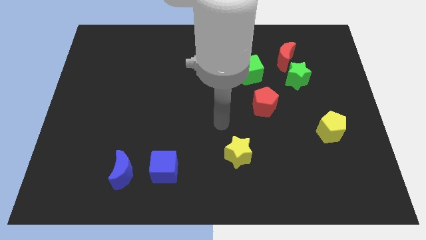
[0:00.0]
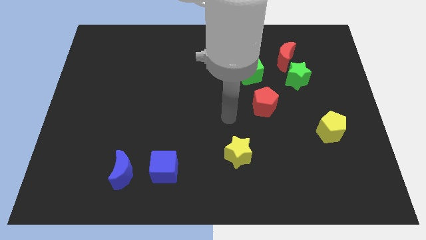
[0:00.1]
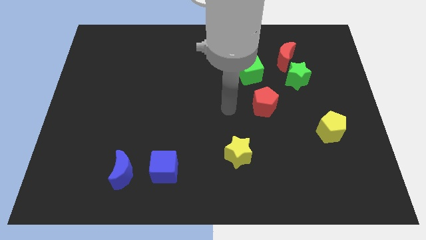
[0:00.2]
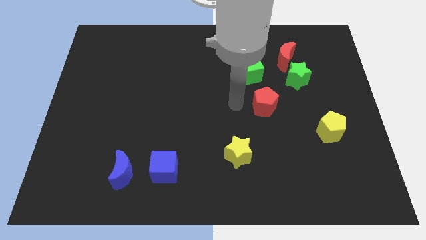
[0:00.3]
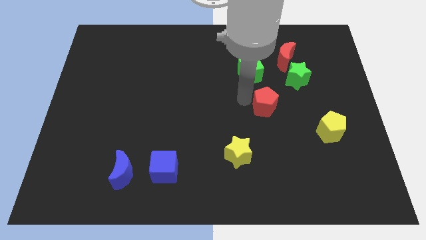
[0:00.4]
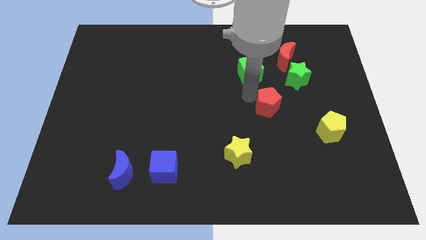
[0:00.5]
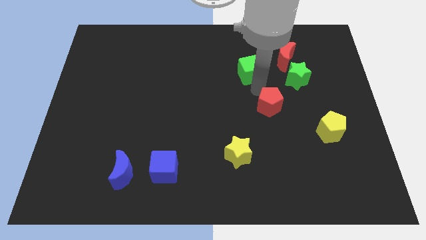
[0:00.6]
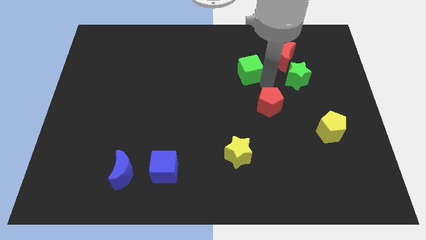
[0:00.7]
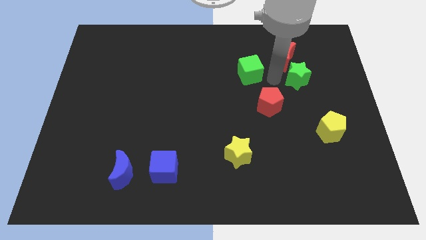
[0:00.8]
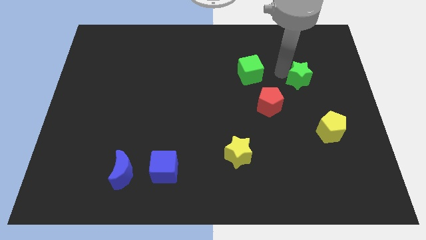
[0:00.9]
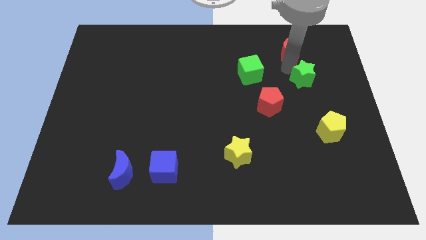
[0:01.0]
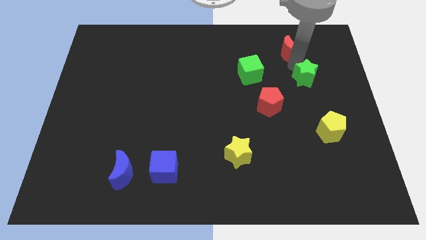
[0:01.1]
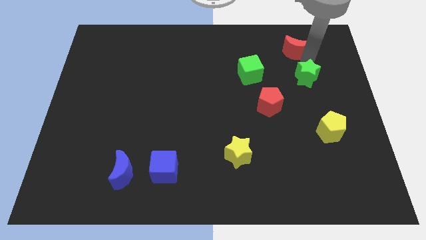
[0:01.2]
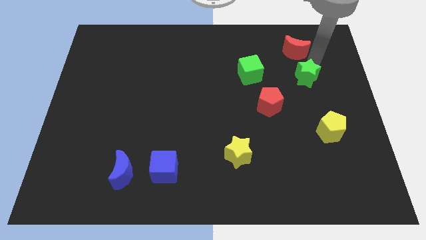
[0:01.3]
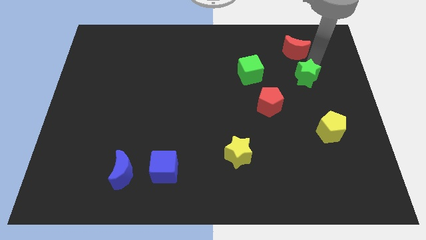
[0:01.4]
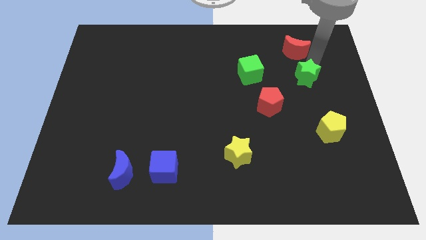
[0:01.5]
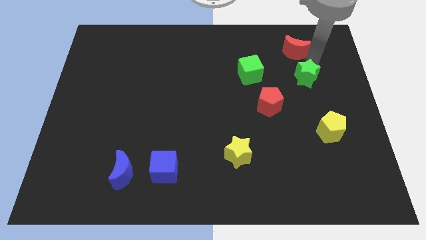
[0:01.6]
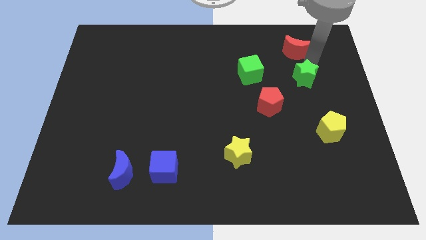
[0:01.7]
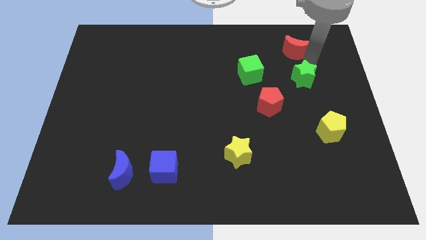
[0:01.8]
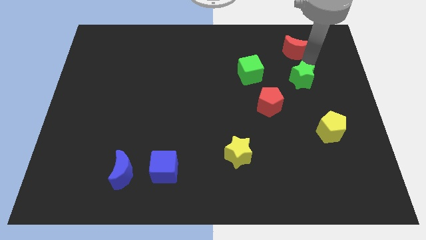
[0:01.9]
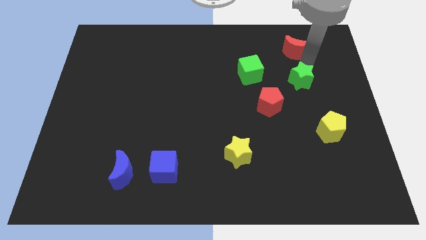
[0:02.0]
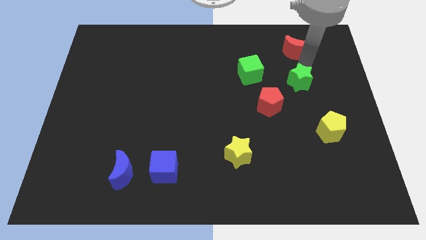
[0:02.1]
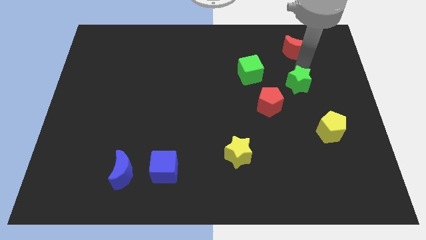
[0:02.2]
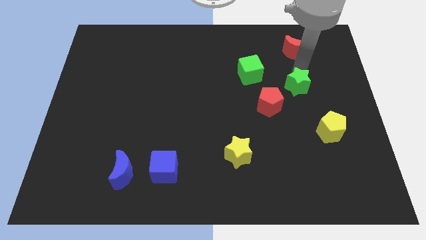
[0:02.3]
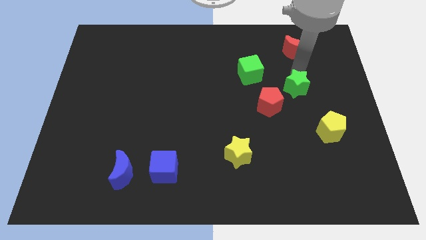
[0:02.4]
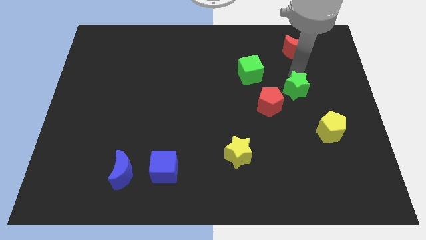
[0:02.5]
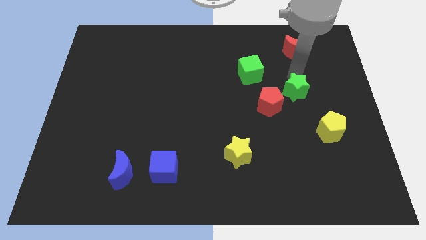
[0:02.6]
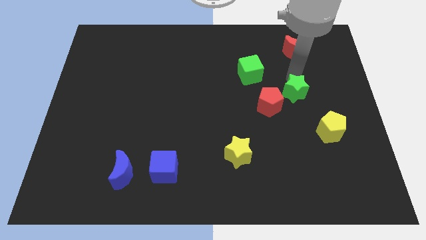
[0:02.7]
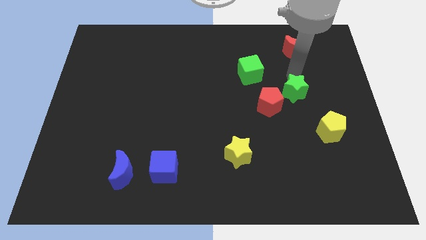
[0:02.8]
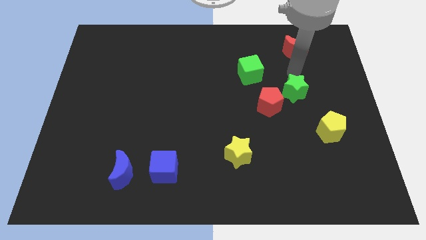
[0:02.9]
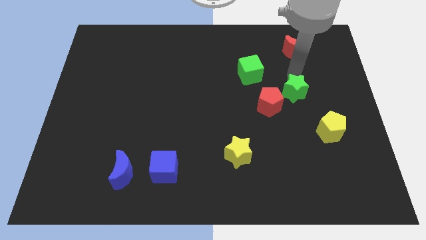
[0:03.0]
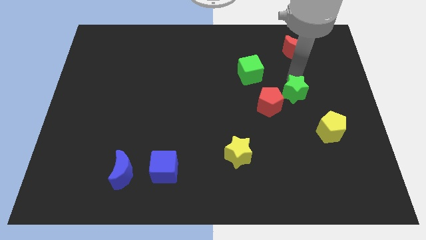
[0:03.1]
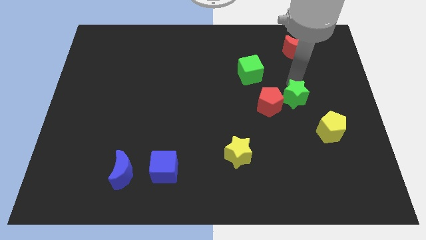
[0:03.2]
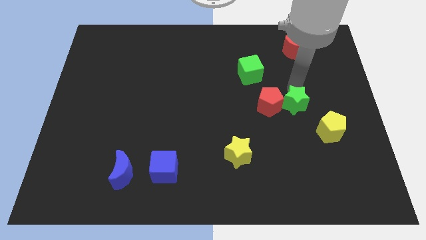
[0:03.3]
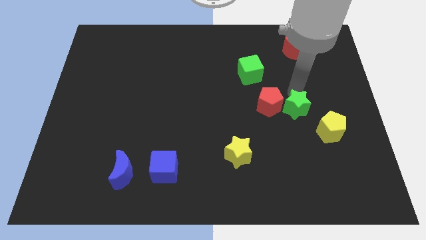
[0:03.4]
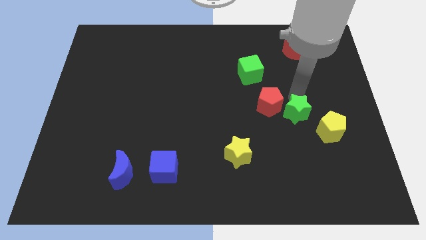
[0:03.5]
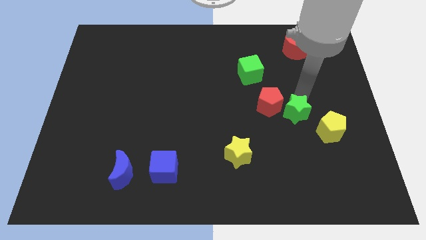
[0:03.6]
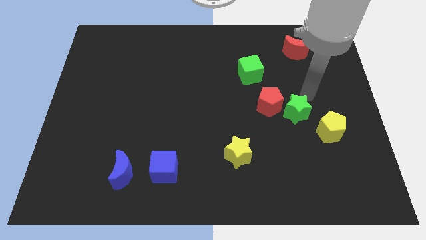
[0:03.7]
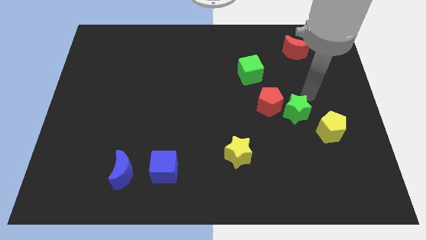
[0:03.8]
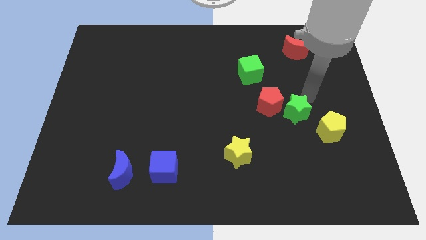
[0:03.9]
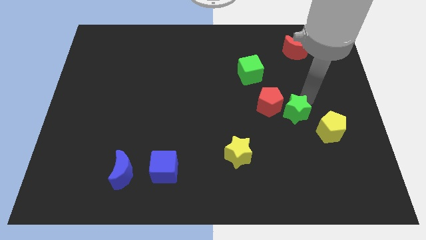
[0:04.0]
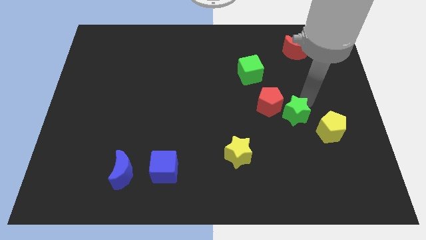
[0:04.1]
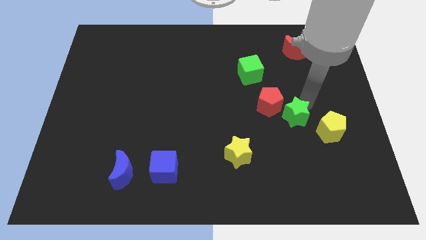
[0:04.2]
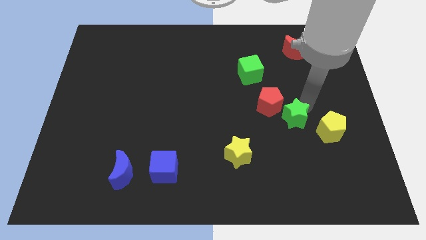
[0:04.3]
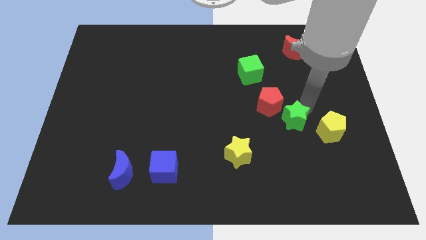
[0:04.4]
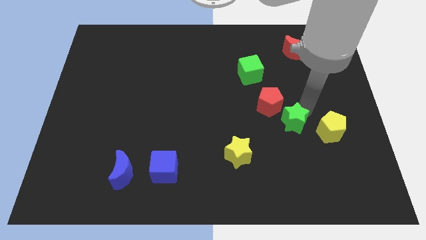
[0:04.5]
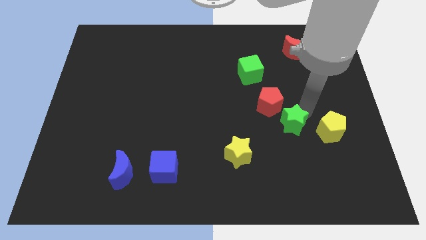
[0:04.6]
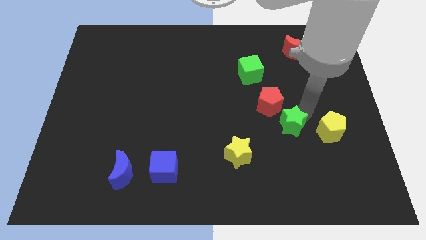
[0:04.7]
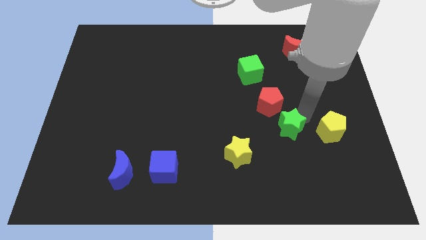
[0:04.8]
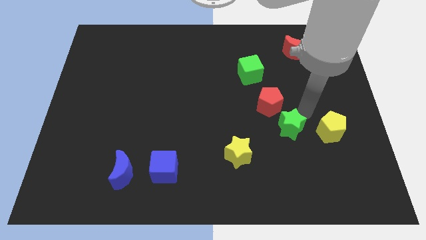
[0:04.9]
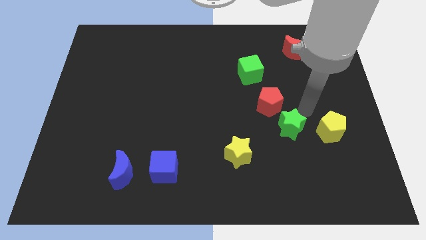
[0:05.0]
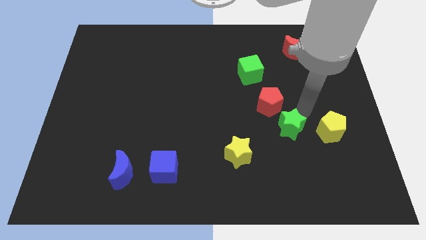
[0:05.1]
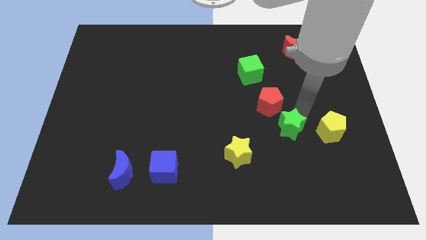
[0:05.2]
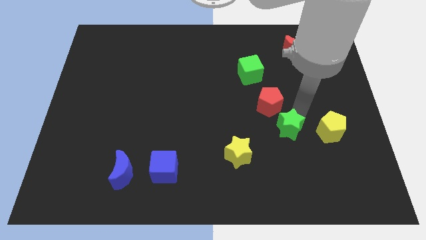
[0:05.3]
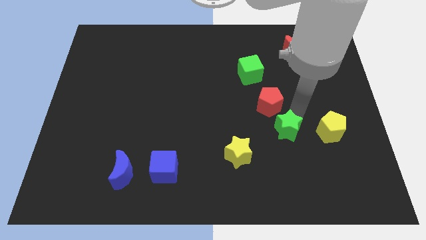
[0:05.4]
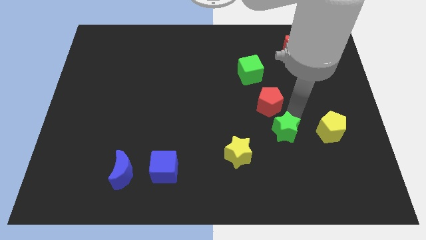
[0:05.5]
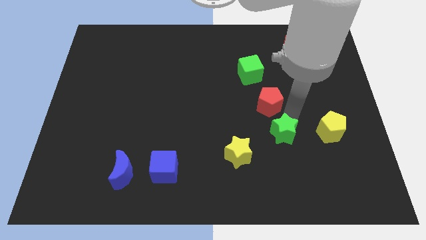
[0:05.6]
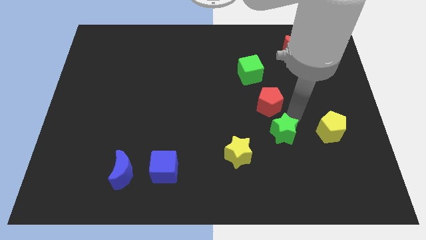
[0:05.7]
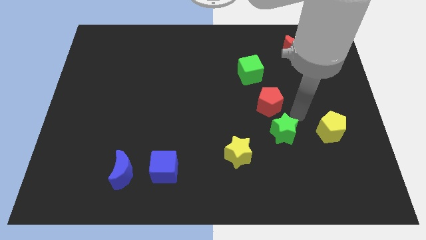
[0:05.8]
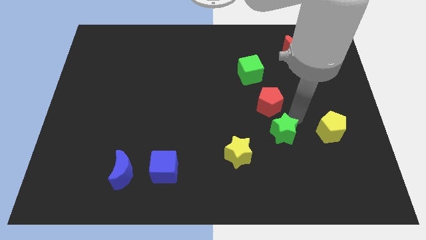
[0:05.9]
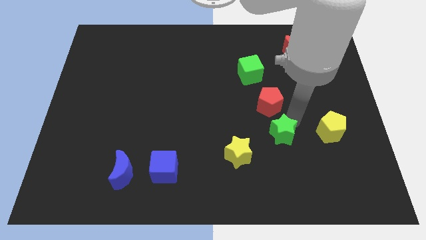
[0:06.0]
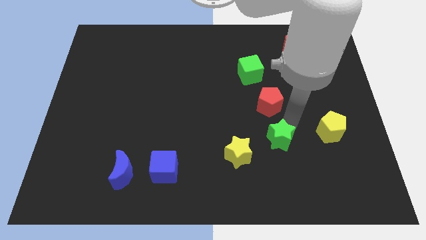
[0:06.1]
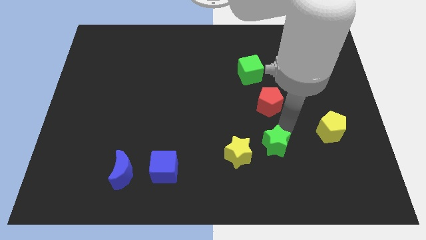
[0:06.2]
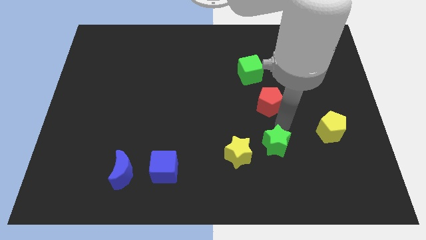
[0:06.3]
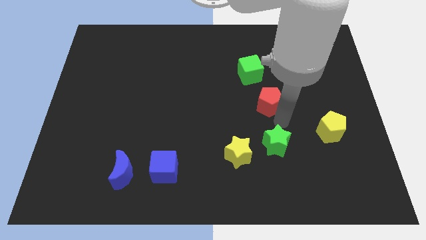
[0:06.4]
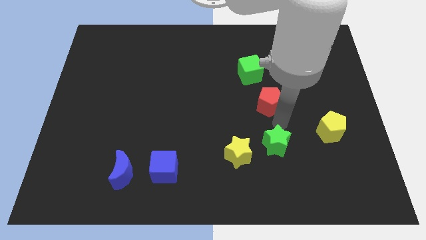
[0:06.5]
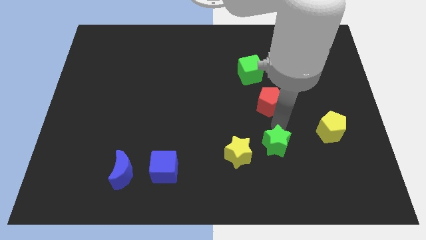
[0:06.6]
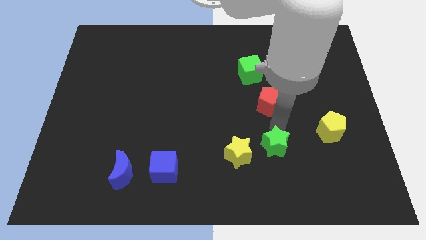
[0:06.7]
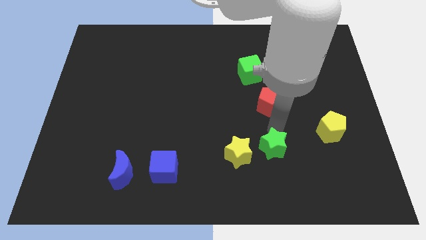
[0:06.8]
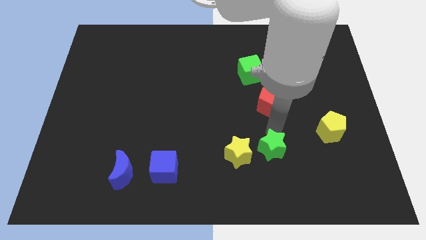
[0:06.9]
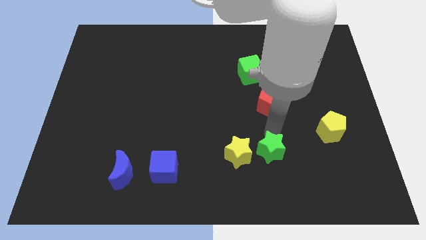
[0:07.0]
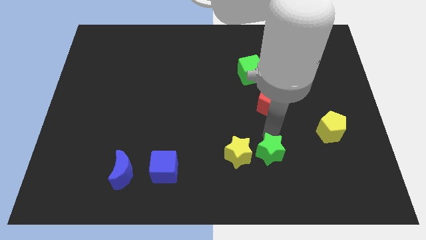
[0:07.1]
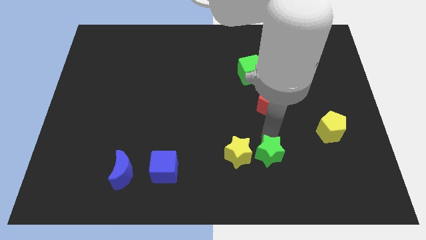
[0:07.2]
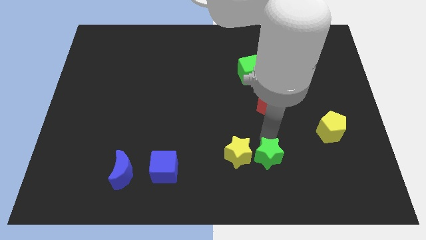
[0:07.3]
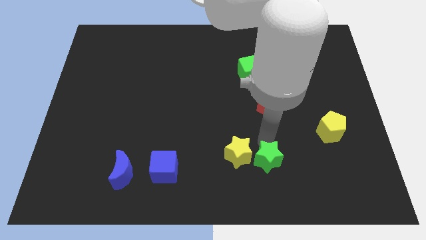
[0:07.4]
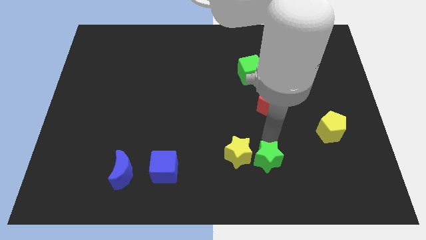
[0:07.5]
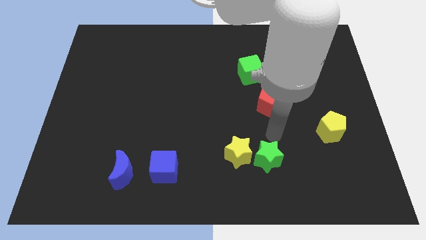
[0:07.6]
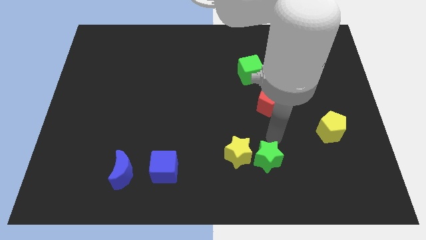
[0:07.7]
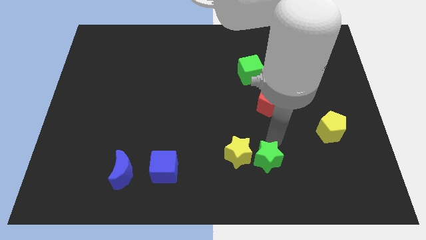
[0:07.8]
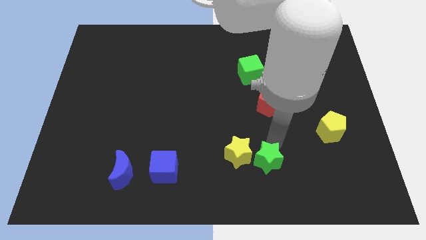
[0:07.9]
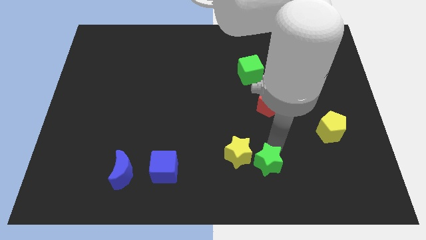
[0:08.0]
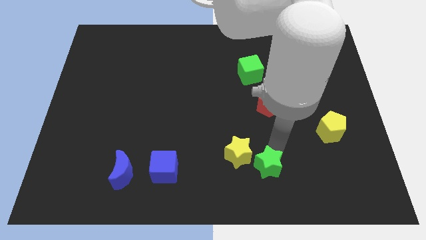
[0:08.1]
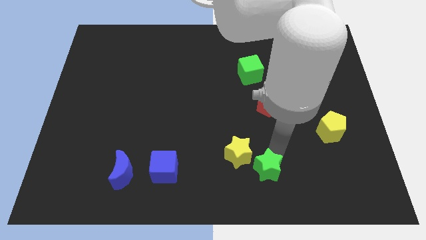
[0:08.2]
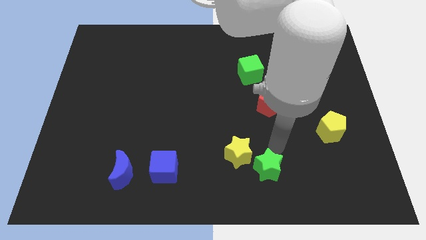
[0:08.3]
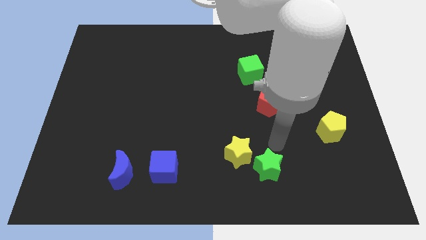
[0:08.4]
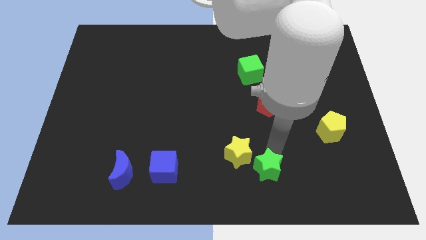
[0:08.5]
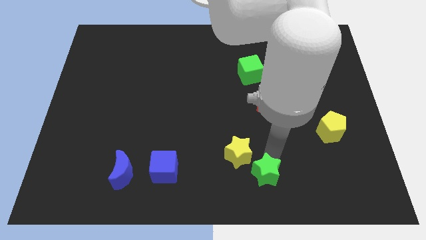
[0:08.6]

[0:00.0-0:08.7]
move the green star to the bottom side
